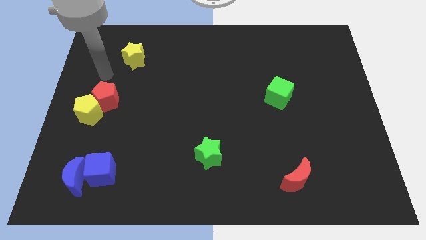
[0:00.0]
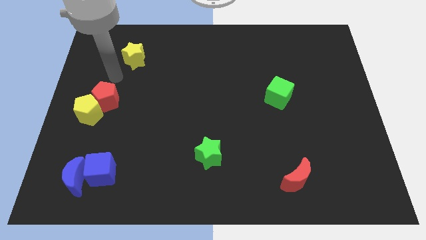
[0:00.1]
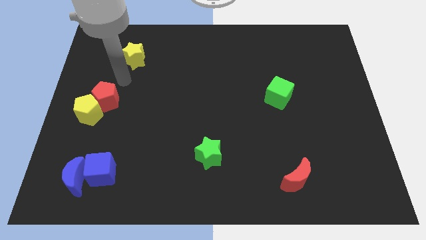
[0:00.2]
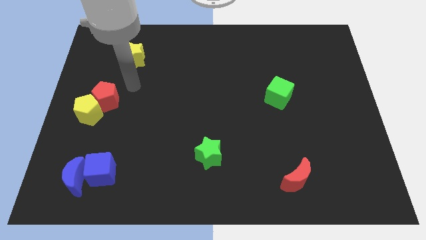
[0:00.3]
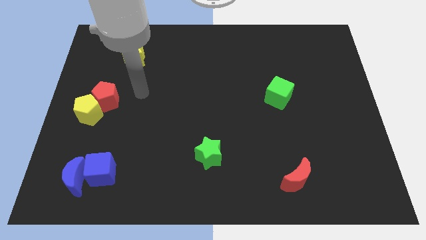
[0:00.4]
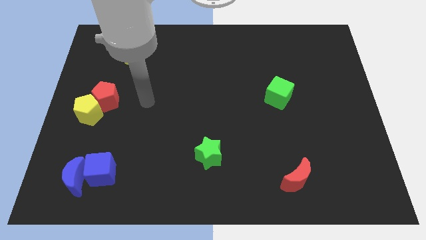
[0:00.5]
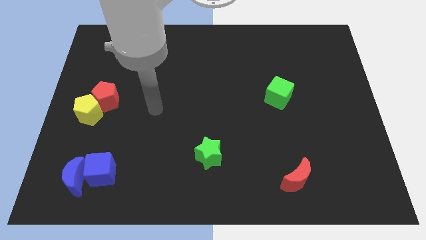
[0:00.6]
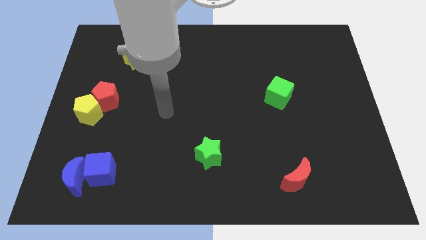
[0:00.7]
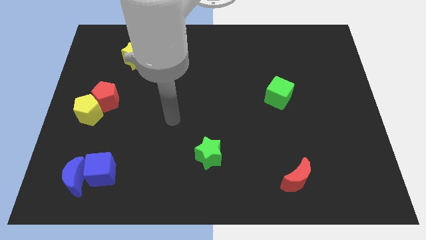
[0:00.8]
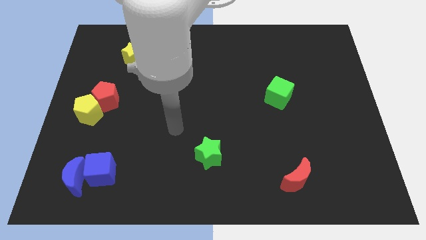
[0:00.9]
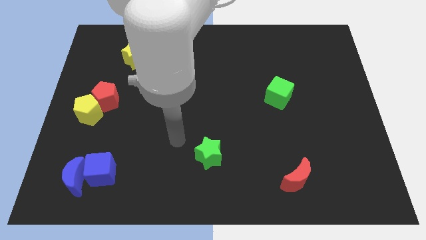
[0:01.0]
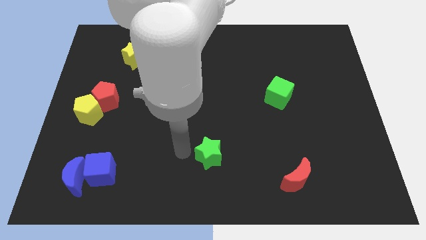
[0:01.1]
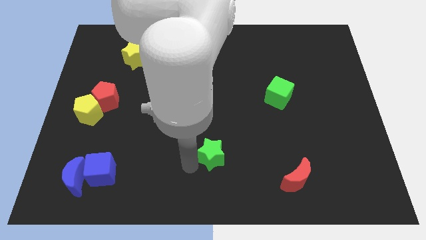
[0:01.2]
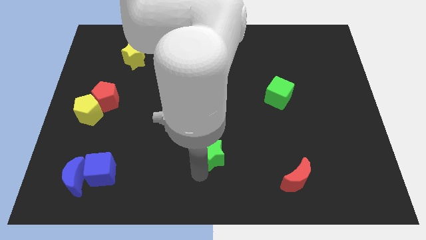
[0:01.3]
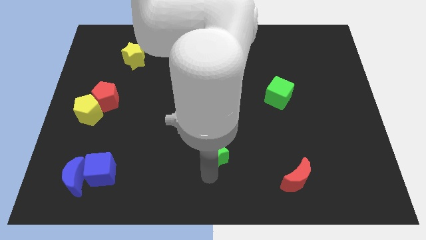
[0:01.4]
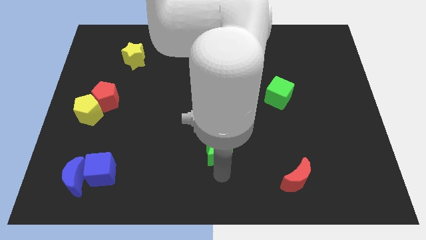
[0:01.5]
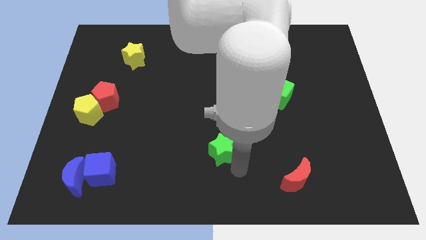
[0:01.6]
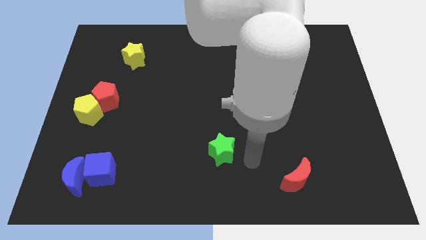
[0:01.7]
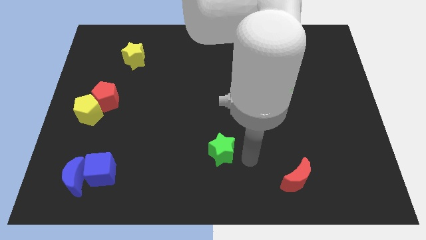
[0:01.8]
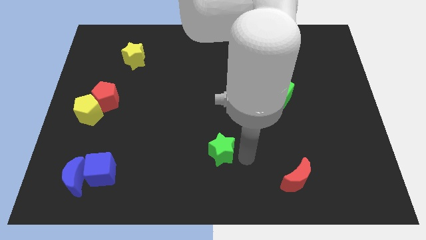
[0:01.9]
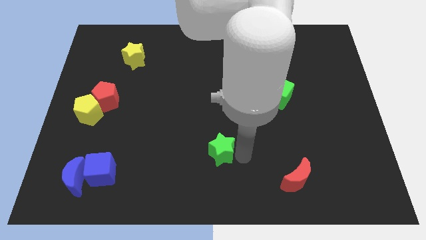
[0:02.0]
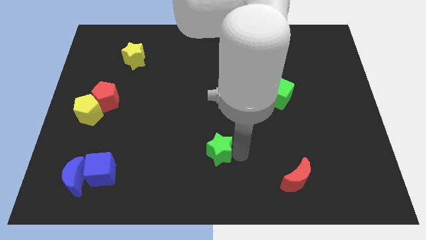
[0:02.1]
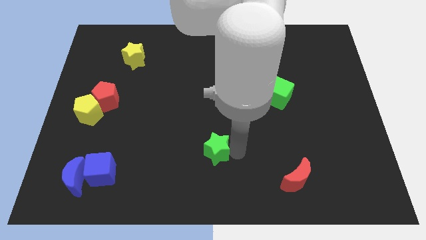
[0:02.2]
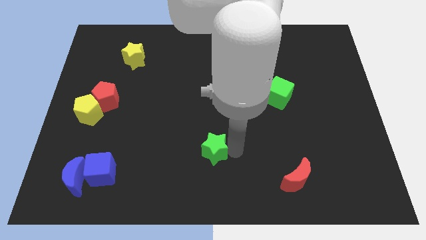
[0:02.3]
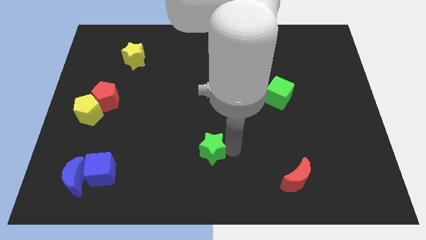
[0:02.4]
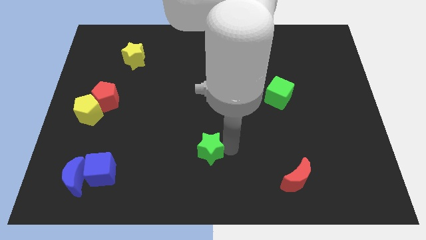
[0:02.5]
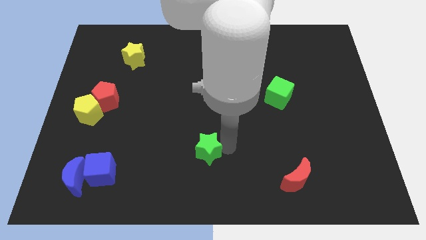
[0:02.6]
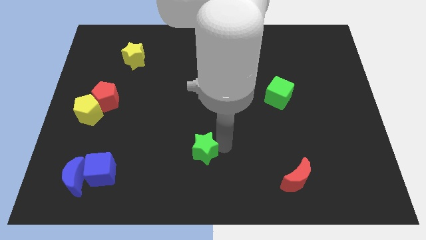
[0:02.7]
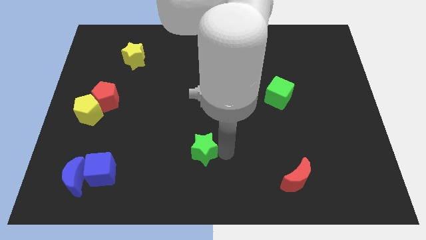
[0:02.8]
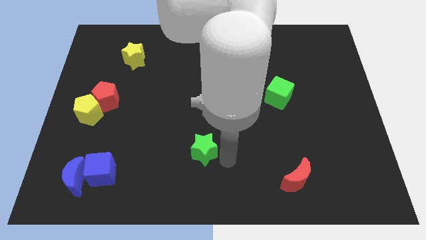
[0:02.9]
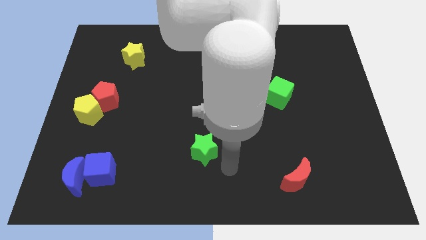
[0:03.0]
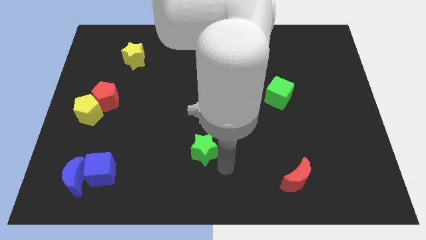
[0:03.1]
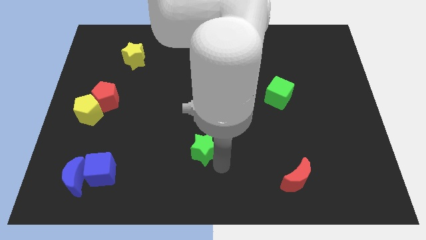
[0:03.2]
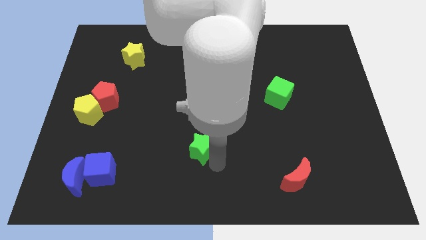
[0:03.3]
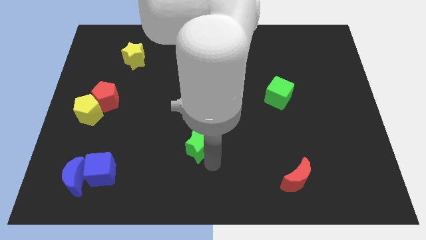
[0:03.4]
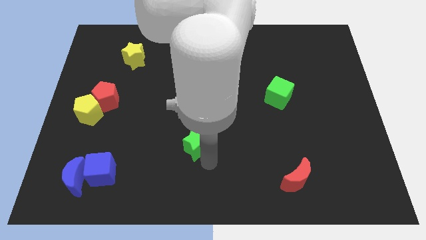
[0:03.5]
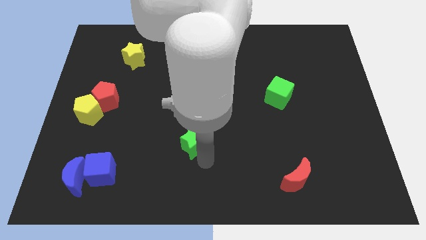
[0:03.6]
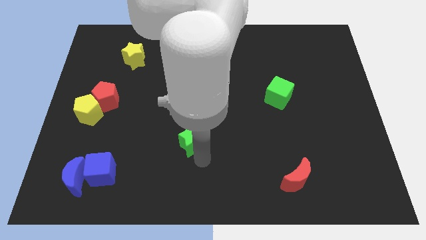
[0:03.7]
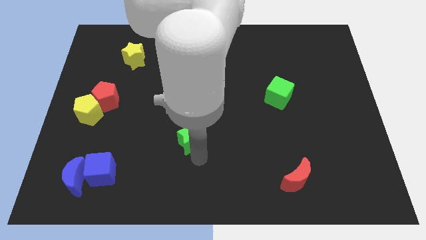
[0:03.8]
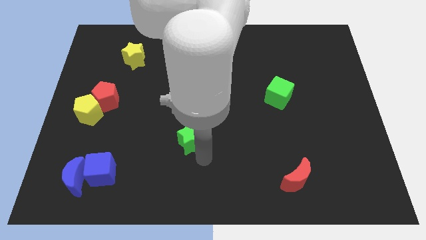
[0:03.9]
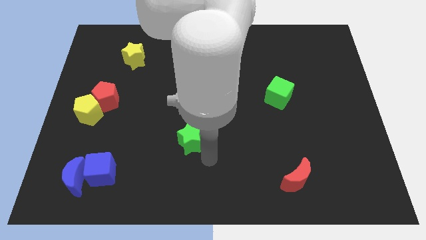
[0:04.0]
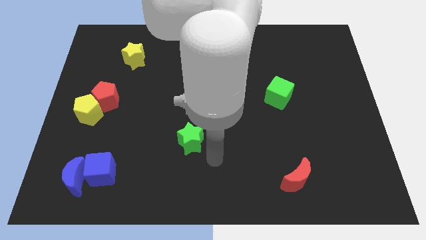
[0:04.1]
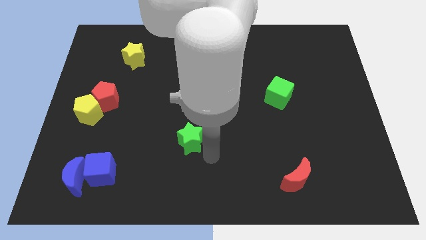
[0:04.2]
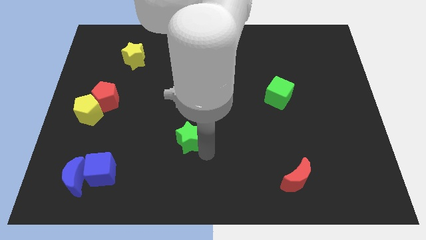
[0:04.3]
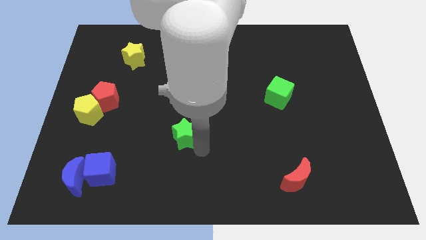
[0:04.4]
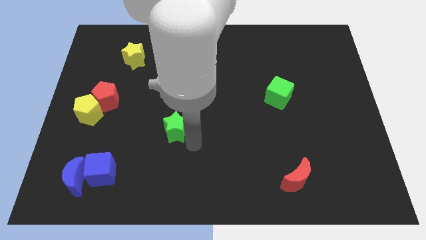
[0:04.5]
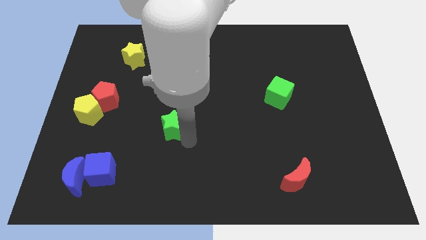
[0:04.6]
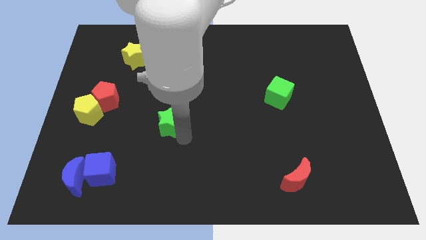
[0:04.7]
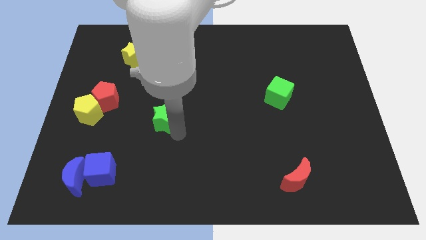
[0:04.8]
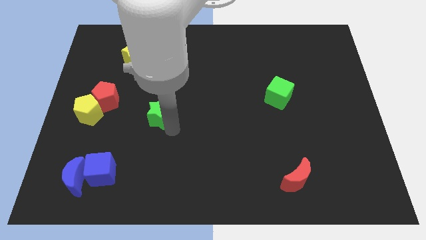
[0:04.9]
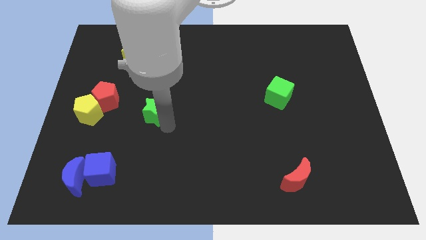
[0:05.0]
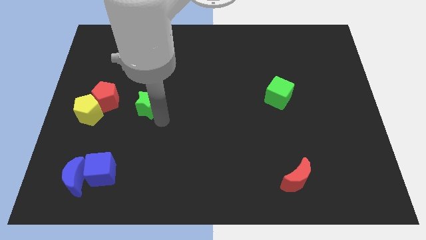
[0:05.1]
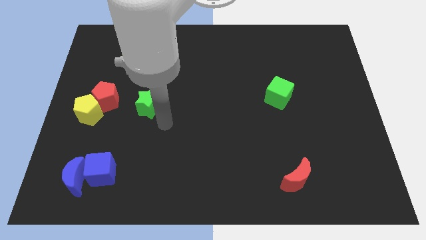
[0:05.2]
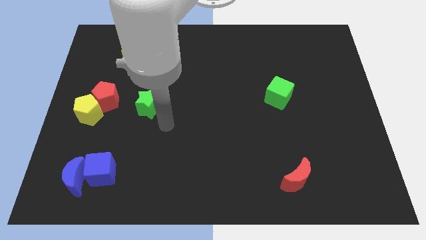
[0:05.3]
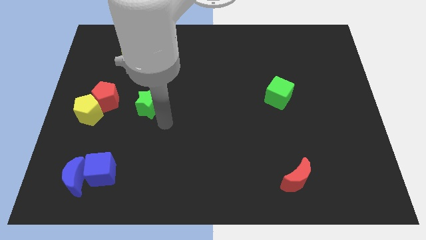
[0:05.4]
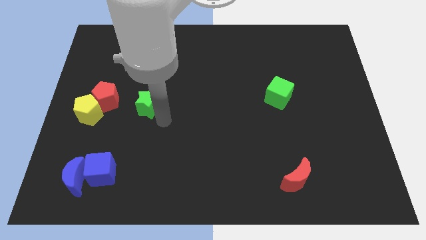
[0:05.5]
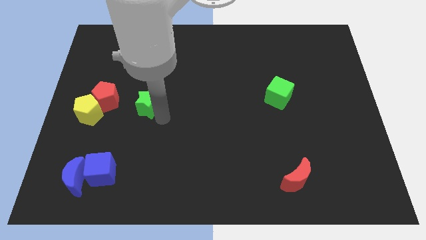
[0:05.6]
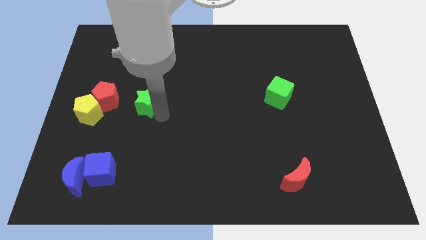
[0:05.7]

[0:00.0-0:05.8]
slide the green star up and to the left diagonally

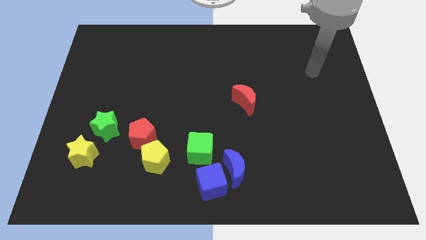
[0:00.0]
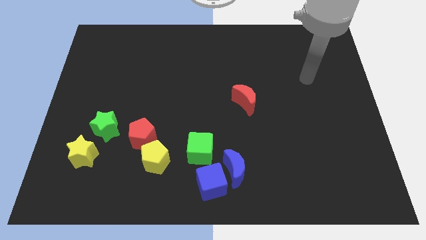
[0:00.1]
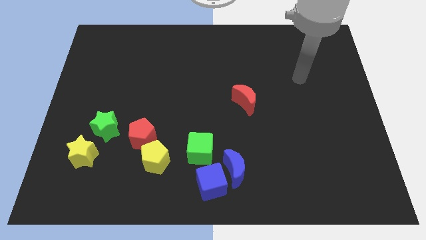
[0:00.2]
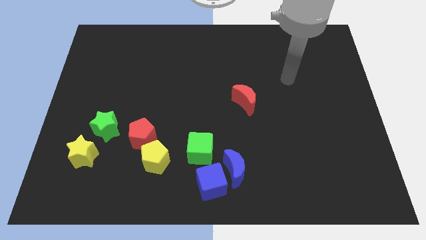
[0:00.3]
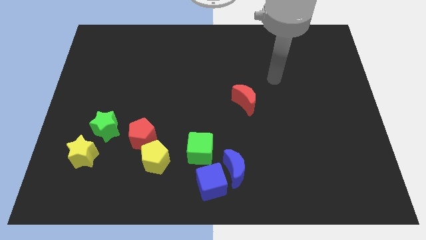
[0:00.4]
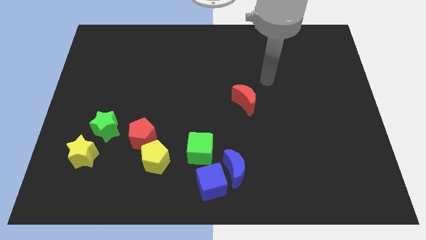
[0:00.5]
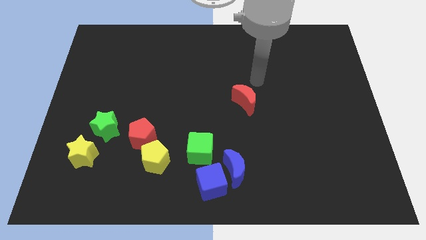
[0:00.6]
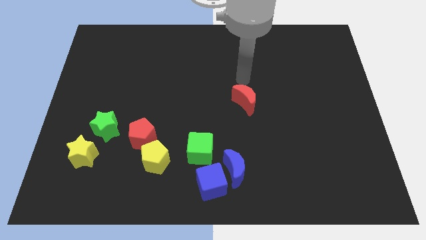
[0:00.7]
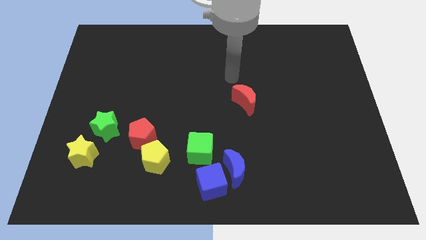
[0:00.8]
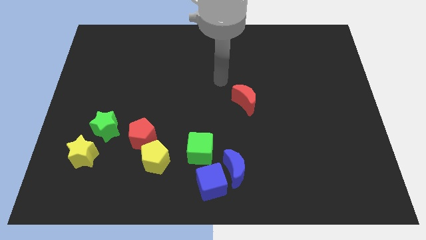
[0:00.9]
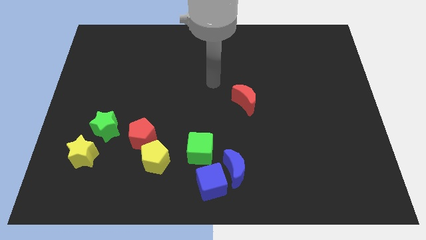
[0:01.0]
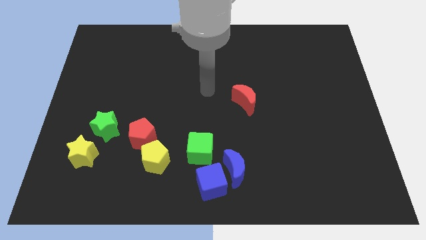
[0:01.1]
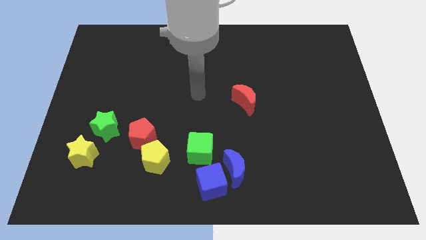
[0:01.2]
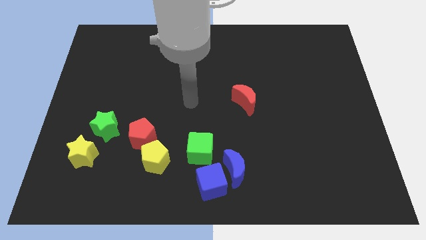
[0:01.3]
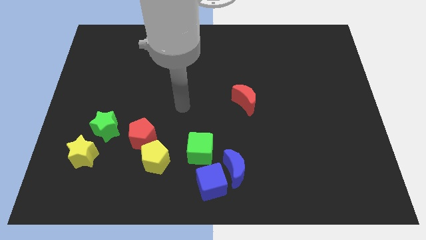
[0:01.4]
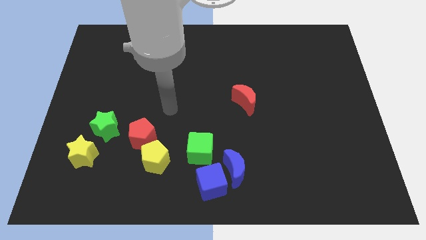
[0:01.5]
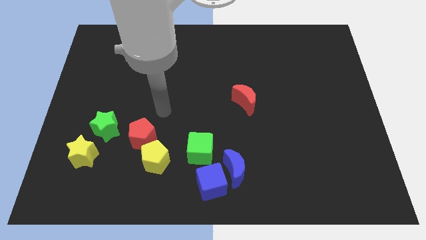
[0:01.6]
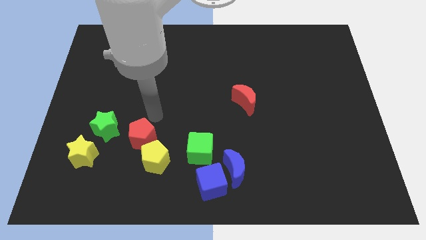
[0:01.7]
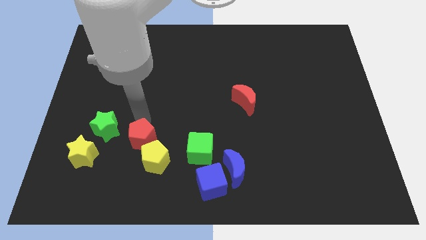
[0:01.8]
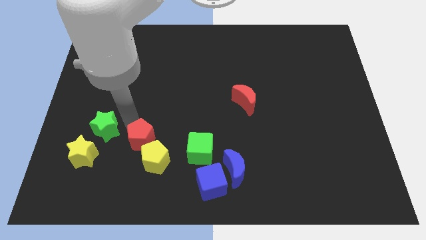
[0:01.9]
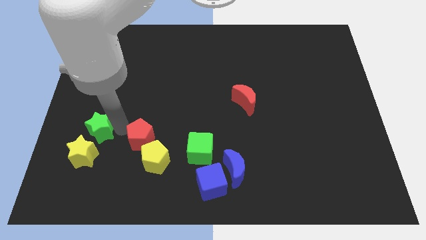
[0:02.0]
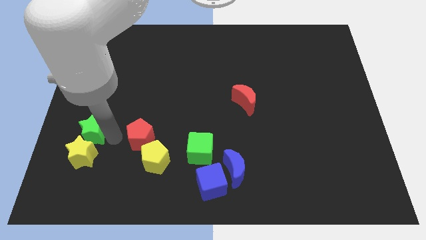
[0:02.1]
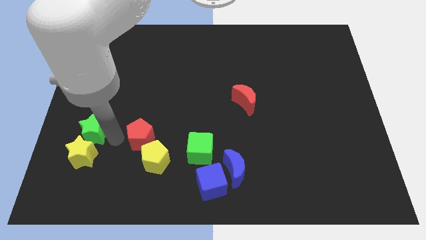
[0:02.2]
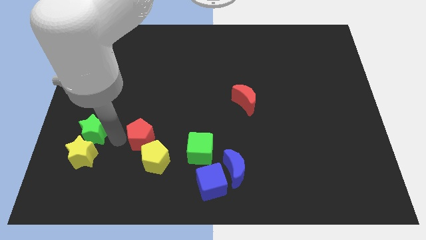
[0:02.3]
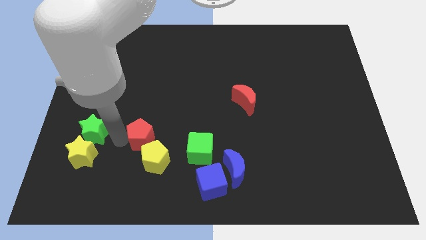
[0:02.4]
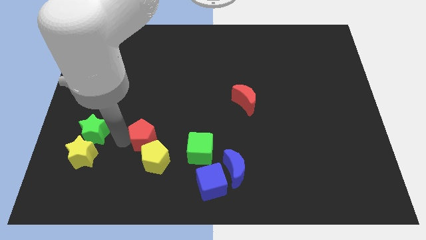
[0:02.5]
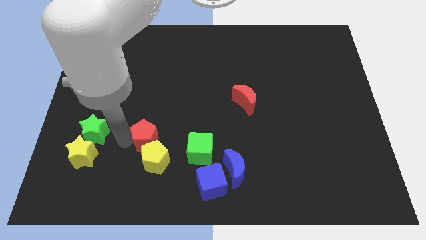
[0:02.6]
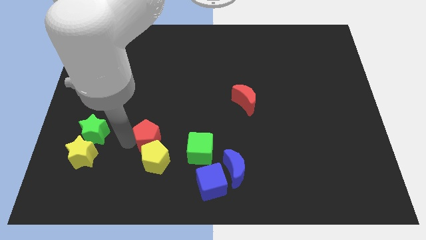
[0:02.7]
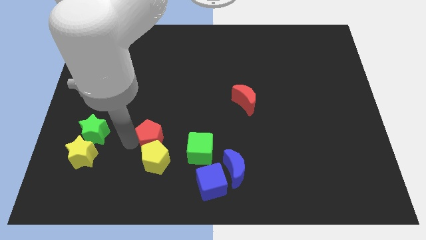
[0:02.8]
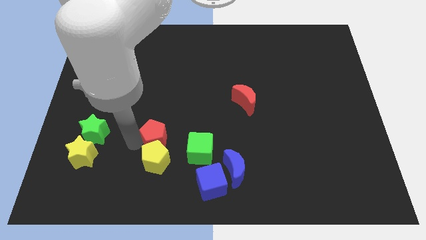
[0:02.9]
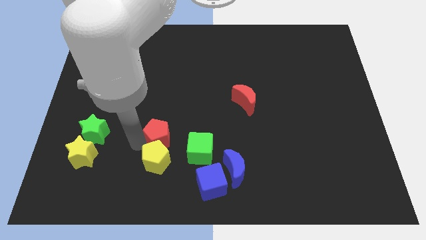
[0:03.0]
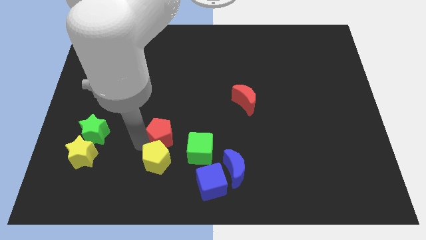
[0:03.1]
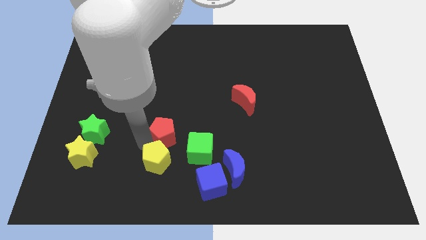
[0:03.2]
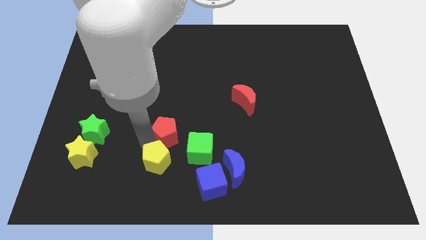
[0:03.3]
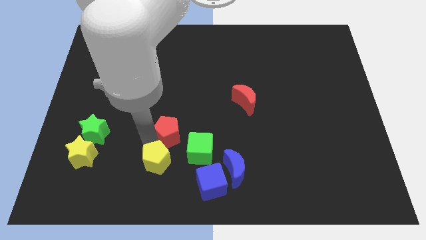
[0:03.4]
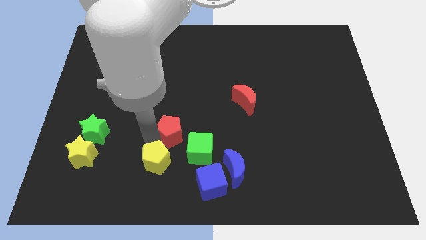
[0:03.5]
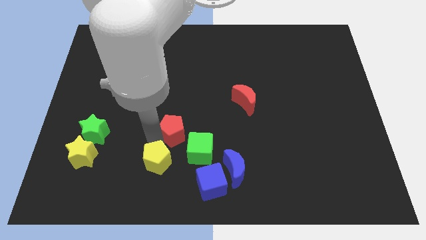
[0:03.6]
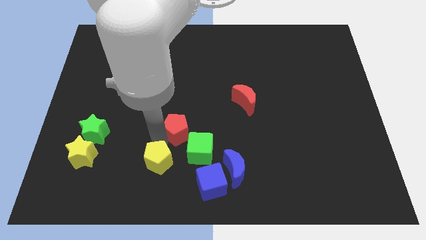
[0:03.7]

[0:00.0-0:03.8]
move the red pentagon a bit to the right
